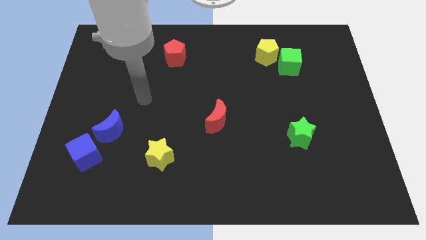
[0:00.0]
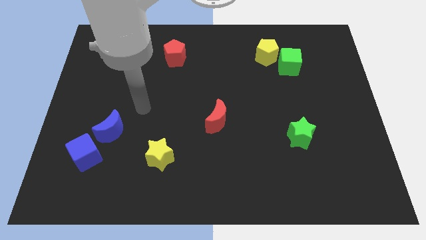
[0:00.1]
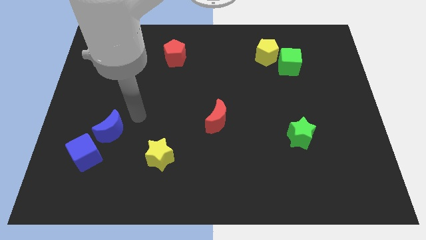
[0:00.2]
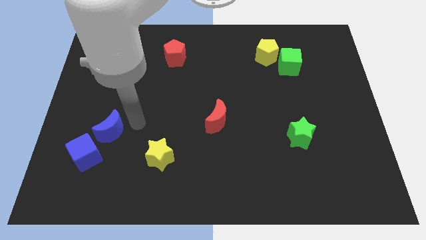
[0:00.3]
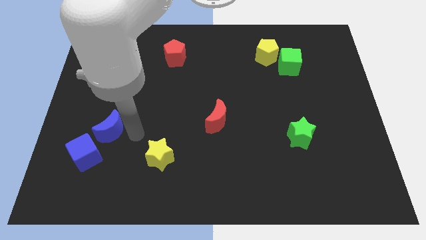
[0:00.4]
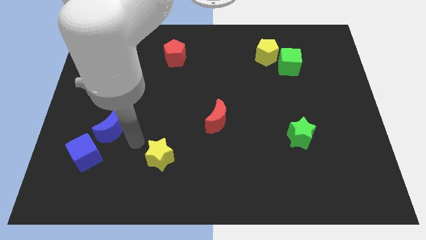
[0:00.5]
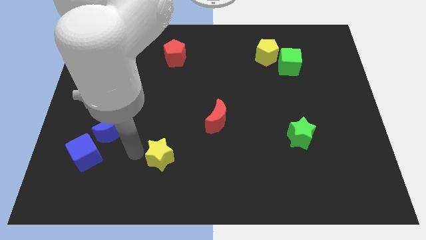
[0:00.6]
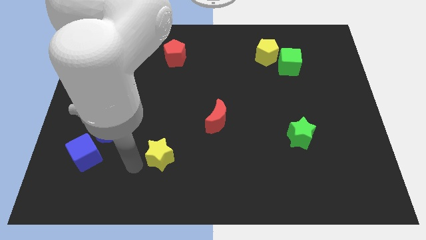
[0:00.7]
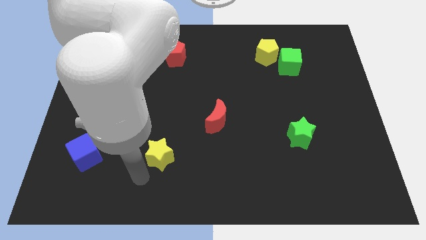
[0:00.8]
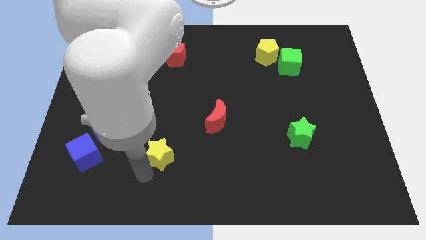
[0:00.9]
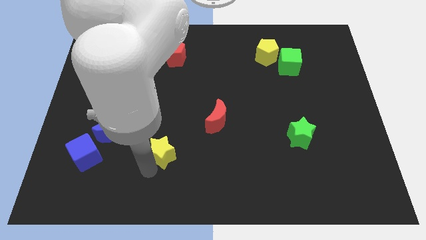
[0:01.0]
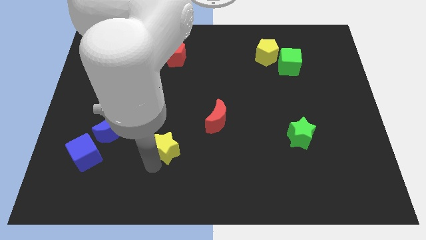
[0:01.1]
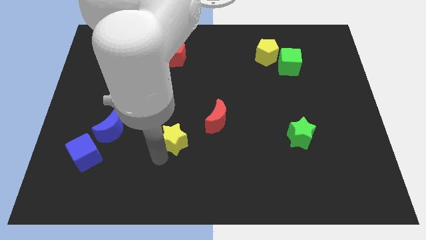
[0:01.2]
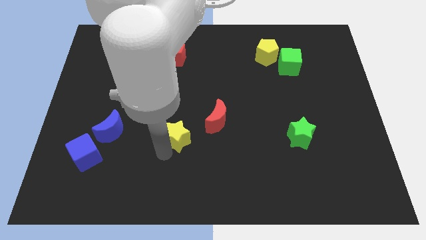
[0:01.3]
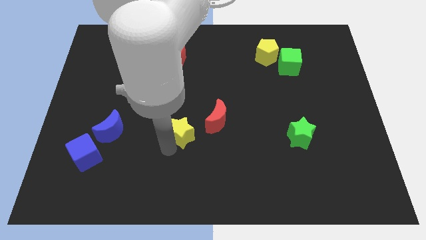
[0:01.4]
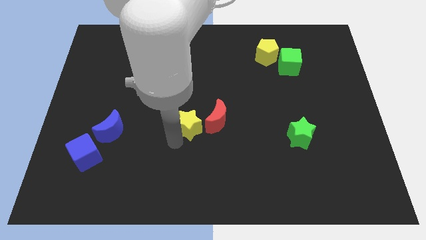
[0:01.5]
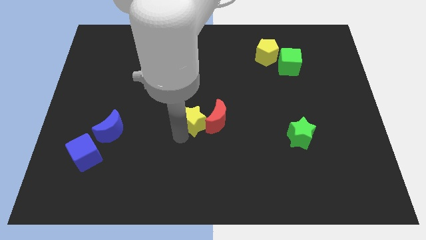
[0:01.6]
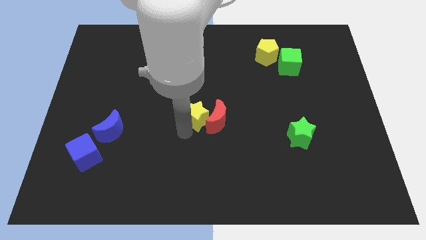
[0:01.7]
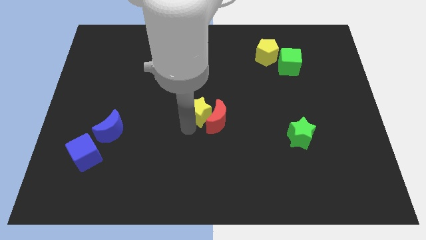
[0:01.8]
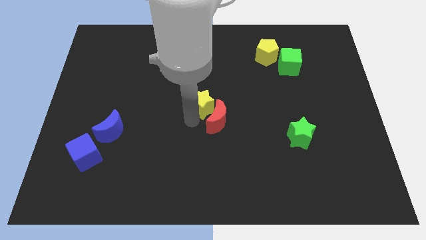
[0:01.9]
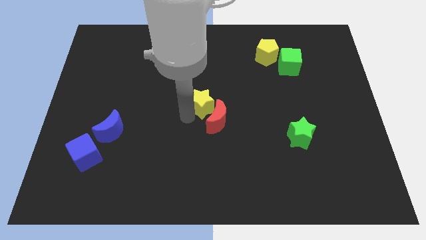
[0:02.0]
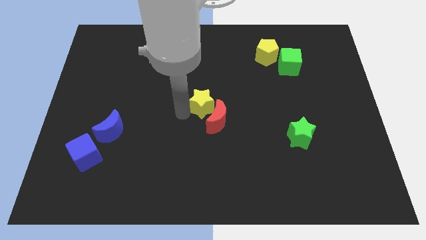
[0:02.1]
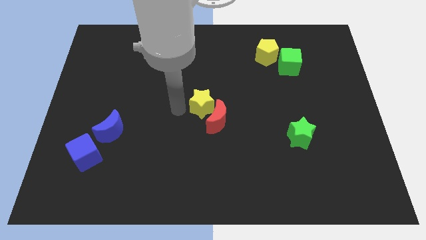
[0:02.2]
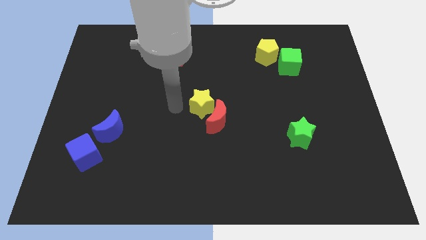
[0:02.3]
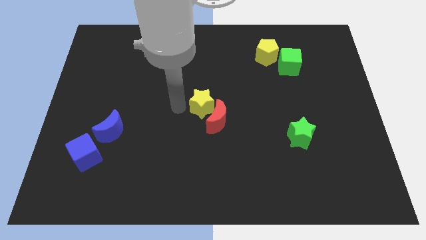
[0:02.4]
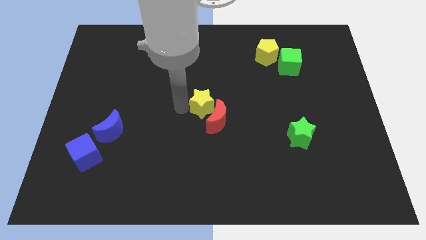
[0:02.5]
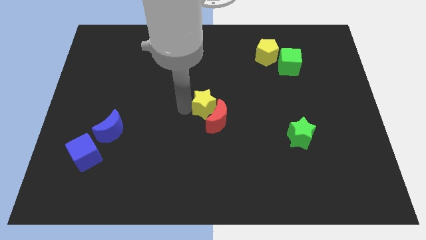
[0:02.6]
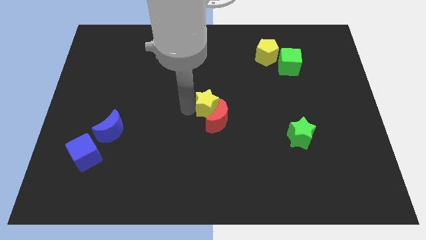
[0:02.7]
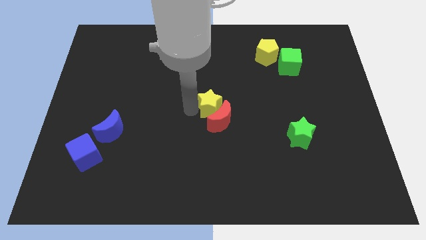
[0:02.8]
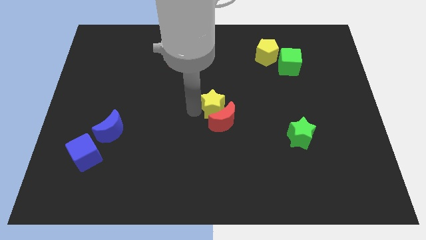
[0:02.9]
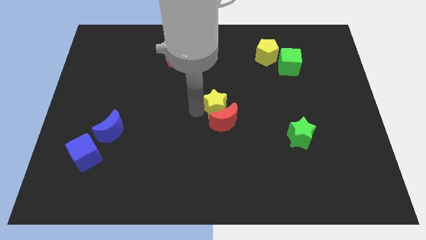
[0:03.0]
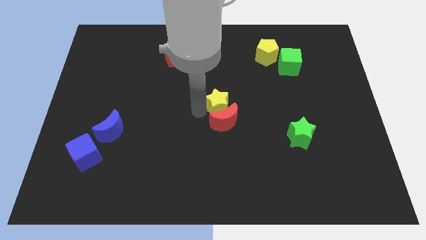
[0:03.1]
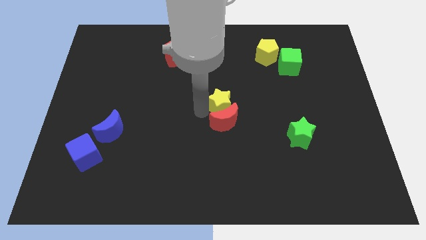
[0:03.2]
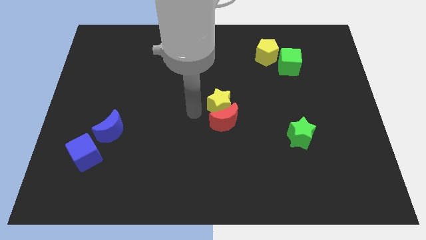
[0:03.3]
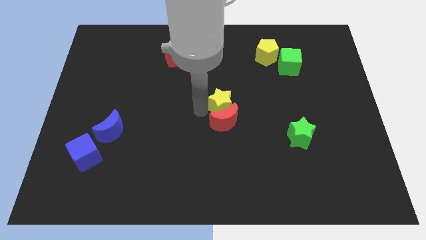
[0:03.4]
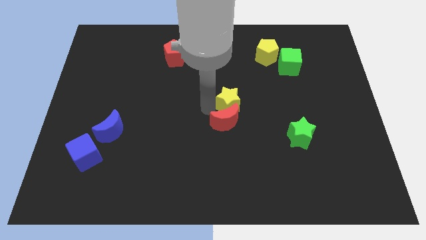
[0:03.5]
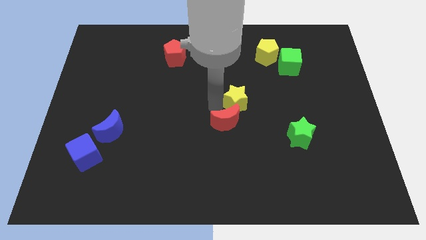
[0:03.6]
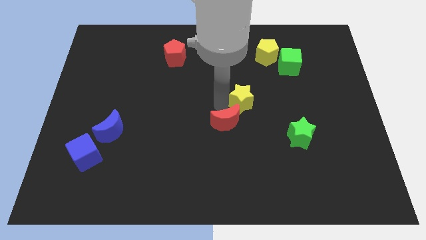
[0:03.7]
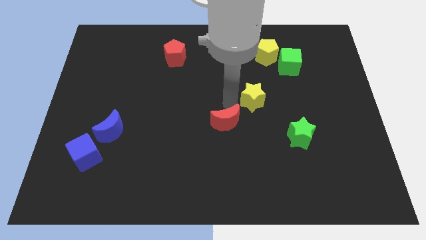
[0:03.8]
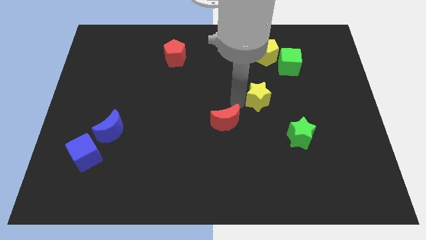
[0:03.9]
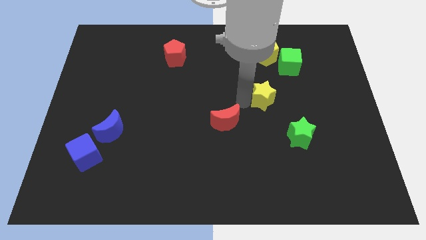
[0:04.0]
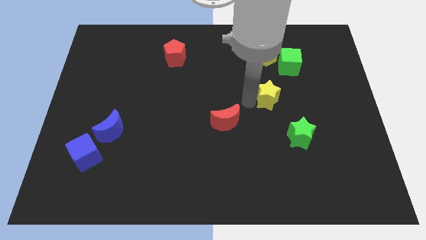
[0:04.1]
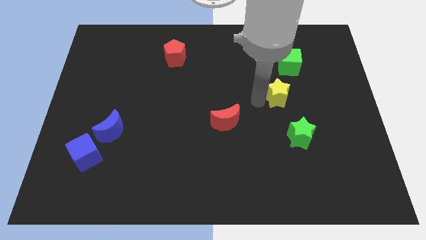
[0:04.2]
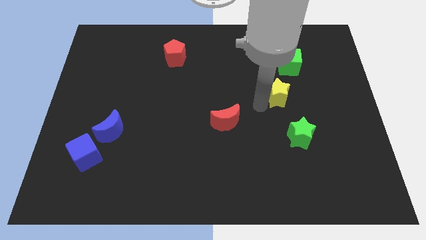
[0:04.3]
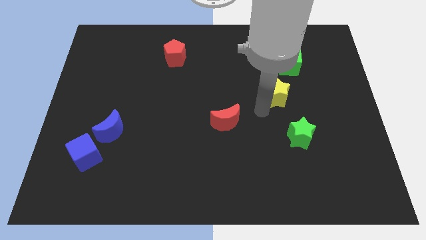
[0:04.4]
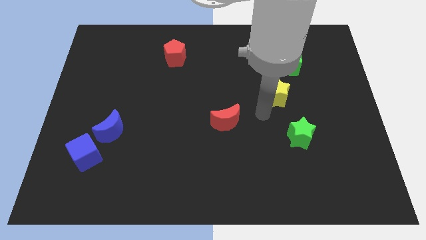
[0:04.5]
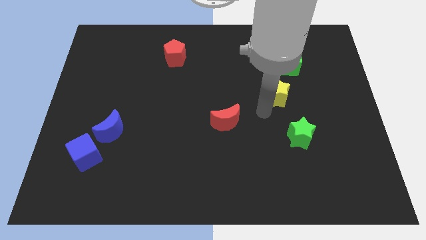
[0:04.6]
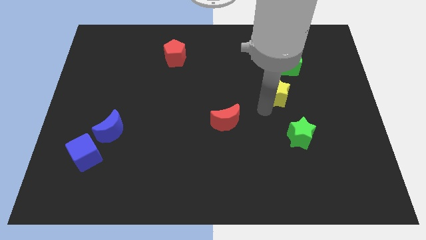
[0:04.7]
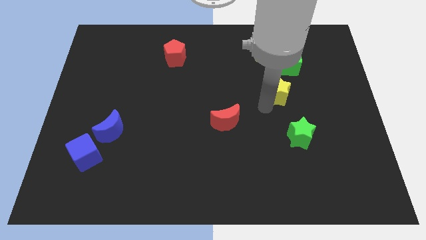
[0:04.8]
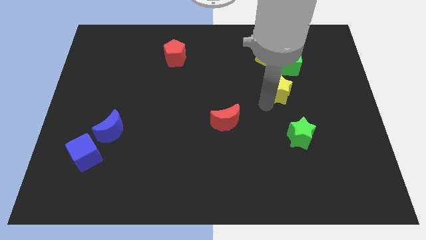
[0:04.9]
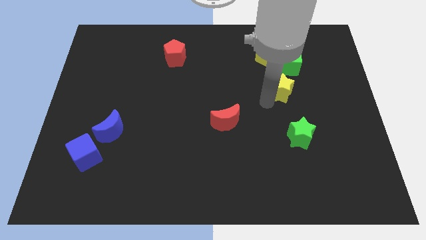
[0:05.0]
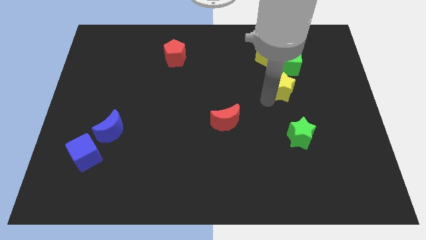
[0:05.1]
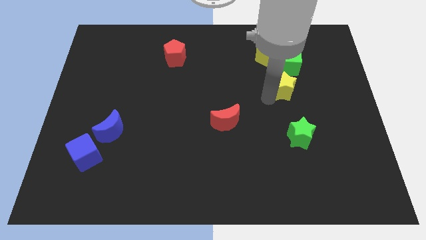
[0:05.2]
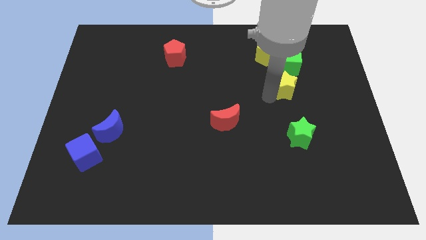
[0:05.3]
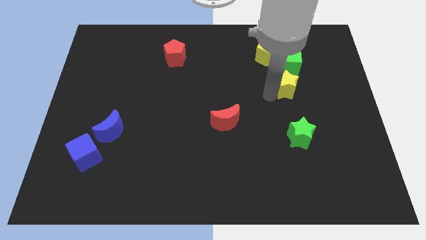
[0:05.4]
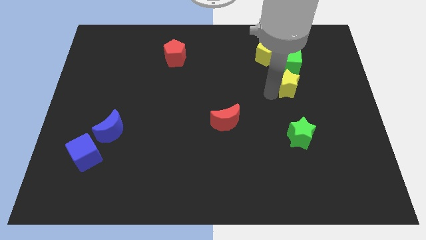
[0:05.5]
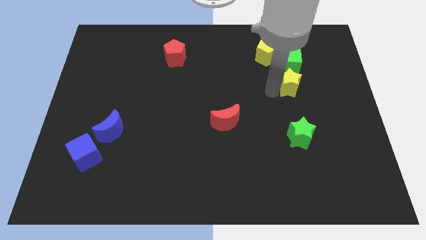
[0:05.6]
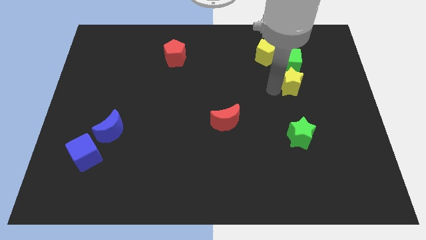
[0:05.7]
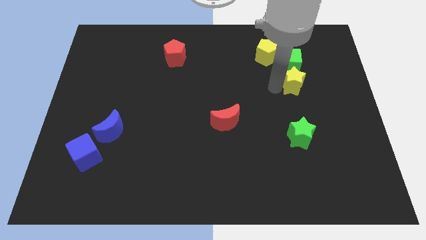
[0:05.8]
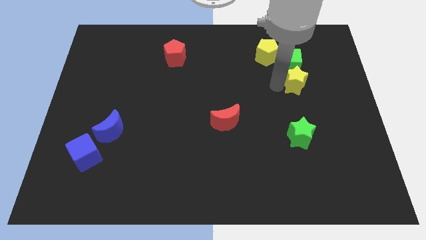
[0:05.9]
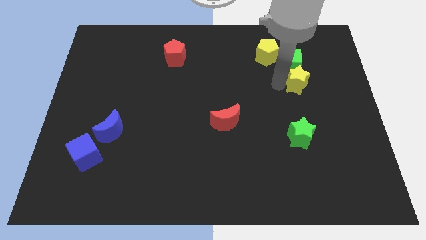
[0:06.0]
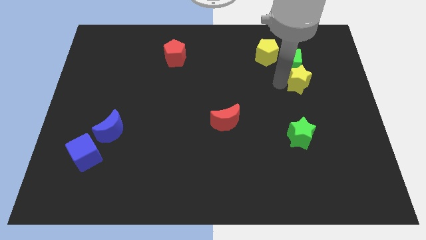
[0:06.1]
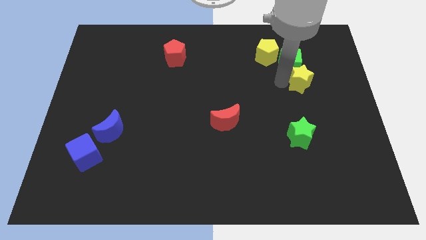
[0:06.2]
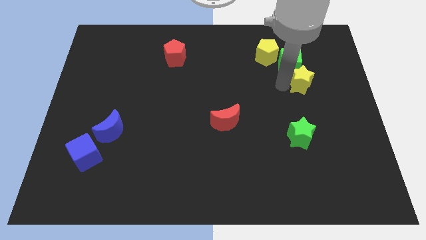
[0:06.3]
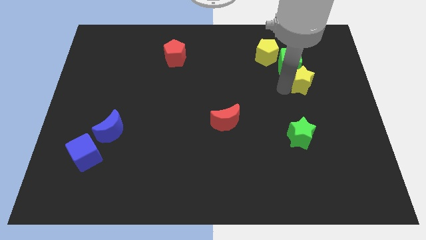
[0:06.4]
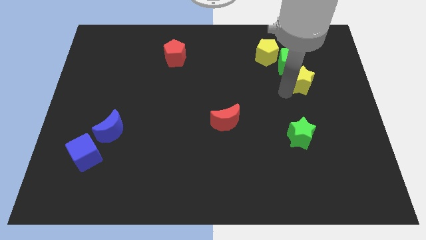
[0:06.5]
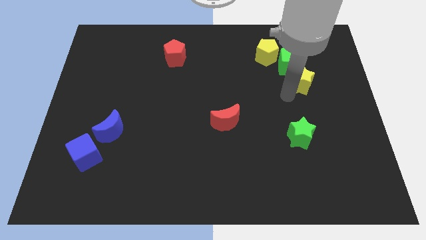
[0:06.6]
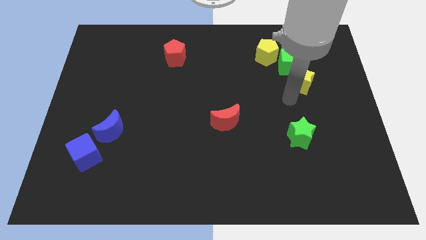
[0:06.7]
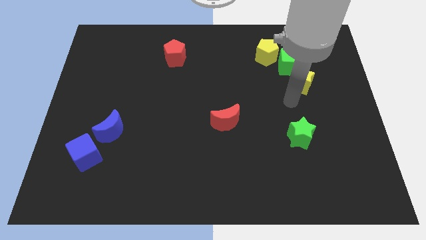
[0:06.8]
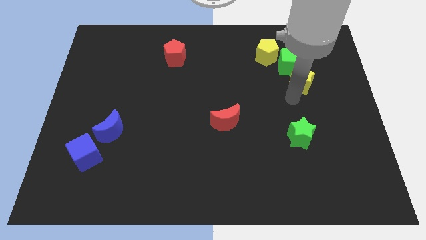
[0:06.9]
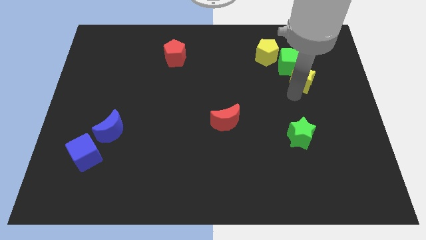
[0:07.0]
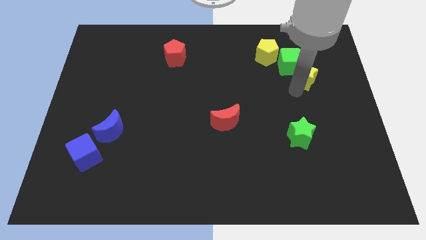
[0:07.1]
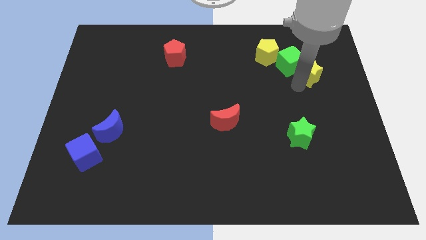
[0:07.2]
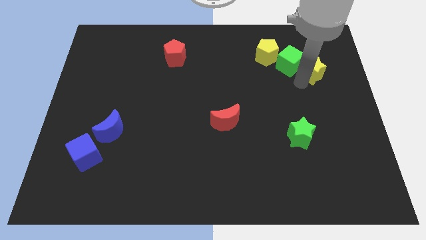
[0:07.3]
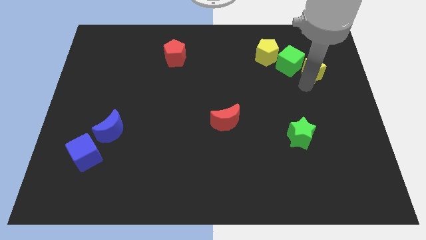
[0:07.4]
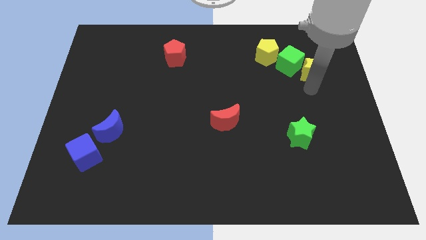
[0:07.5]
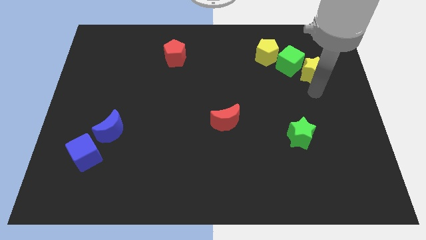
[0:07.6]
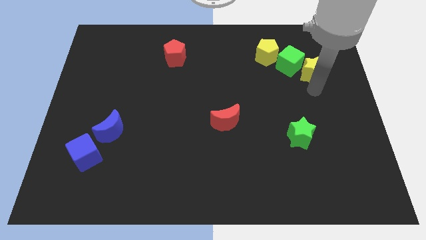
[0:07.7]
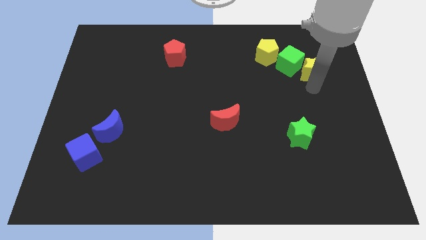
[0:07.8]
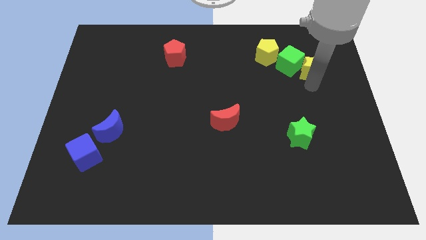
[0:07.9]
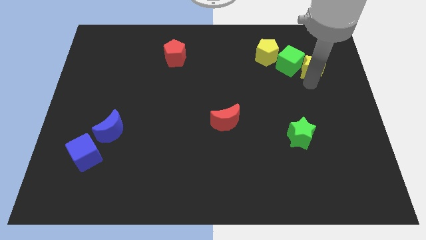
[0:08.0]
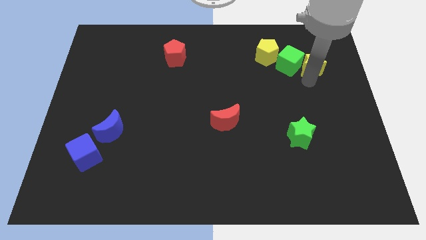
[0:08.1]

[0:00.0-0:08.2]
move the yellow star right of the yellow pentagon
